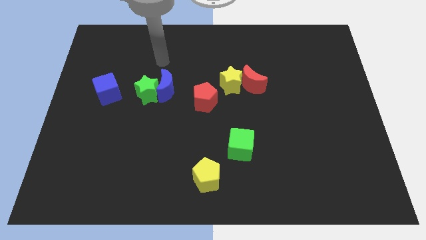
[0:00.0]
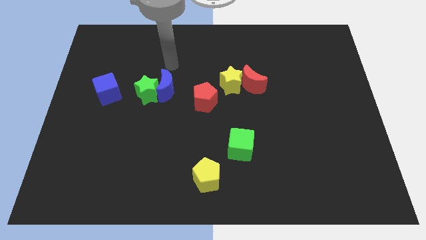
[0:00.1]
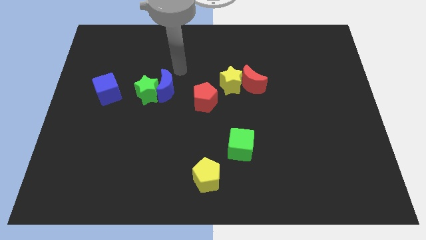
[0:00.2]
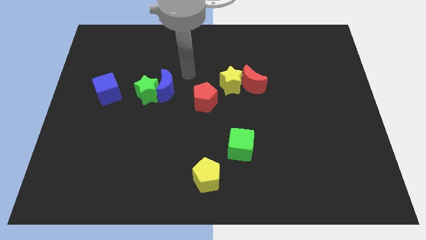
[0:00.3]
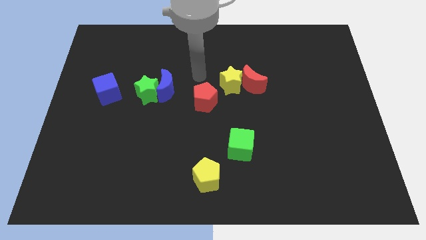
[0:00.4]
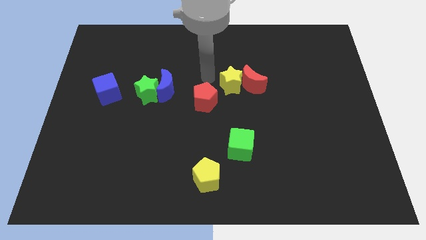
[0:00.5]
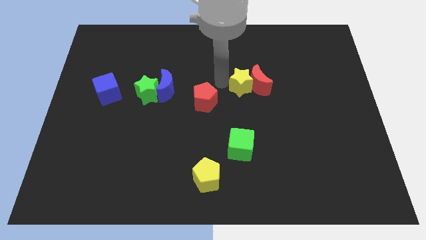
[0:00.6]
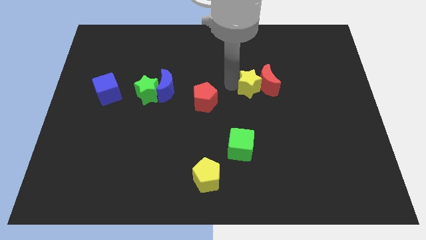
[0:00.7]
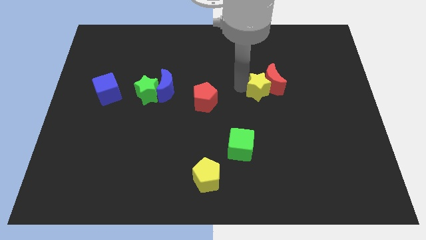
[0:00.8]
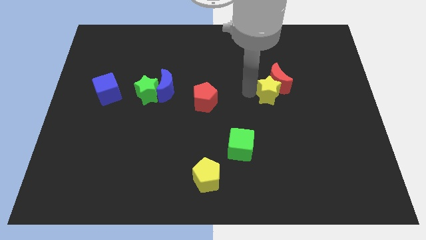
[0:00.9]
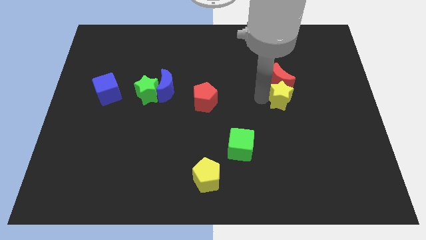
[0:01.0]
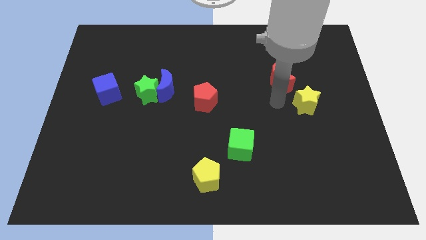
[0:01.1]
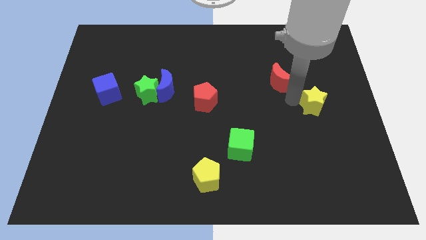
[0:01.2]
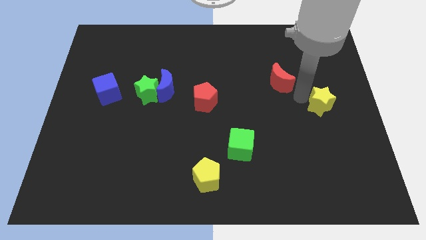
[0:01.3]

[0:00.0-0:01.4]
move the red moon away from the yellow star

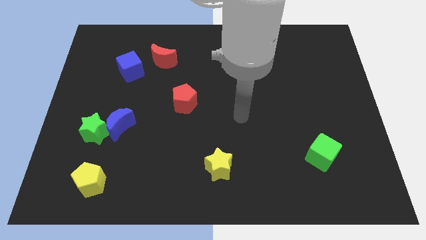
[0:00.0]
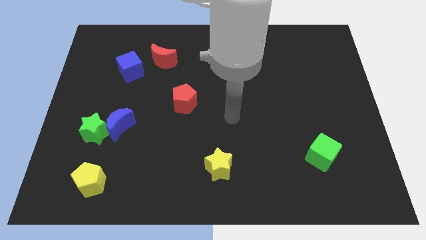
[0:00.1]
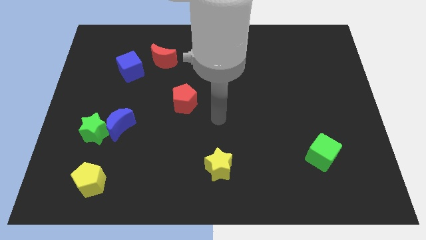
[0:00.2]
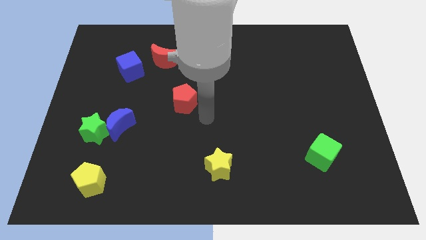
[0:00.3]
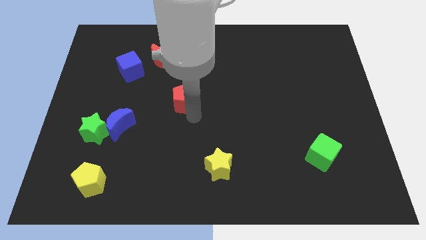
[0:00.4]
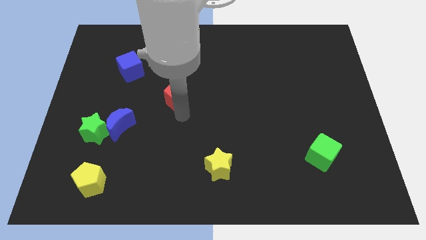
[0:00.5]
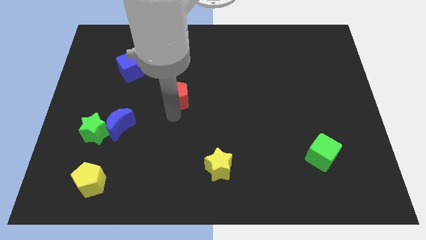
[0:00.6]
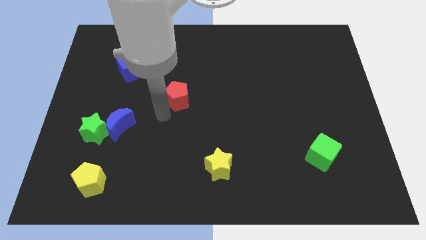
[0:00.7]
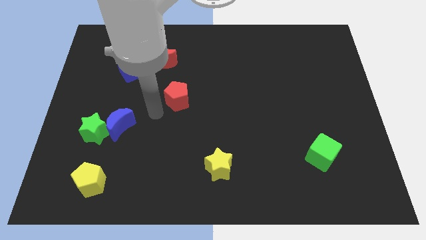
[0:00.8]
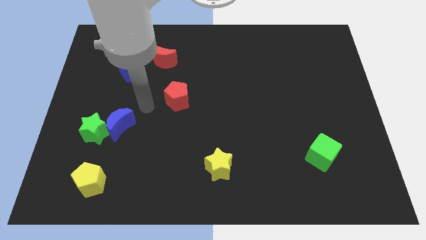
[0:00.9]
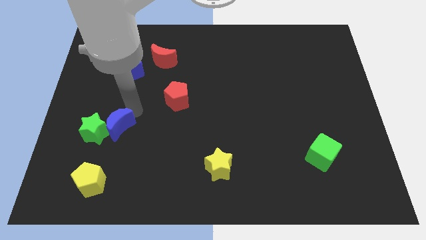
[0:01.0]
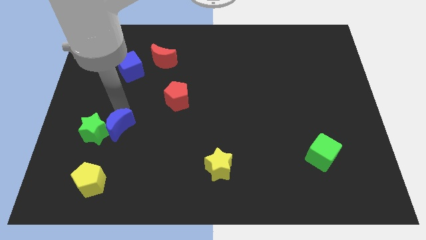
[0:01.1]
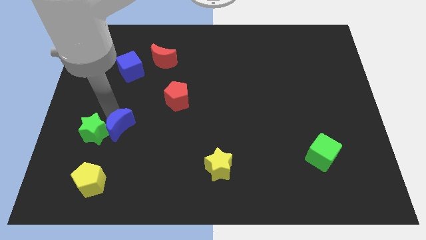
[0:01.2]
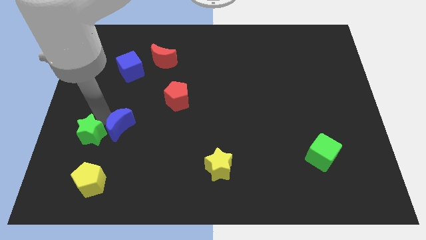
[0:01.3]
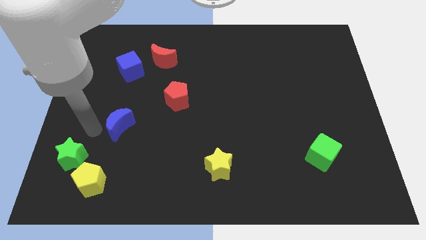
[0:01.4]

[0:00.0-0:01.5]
pull the blue moon apart from the green star

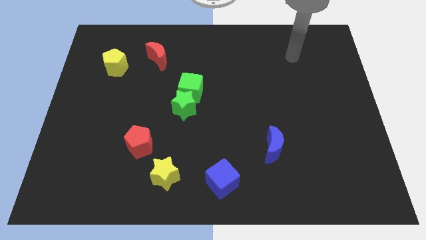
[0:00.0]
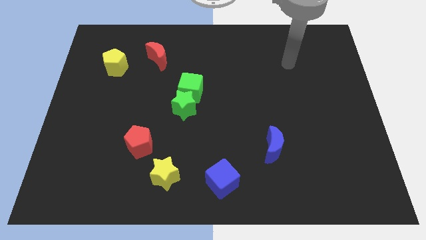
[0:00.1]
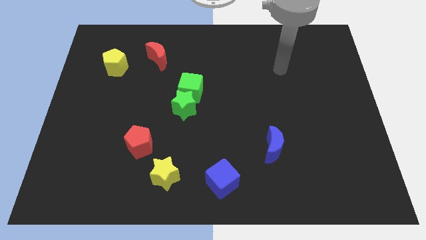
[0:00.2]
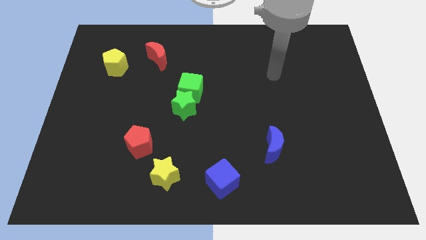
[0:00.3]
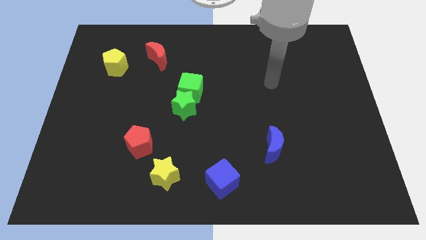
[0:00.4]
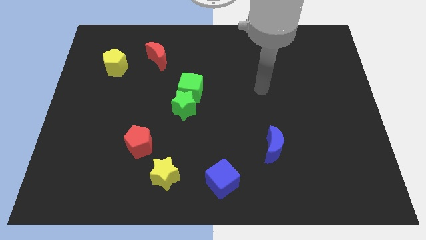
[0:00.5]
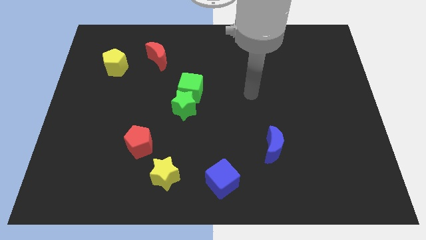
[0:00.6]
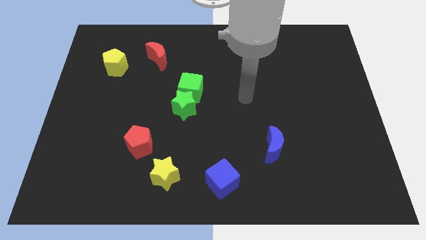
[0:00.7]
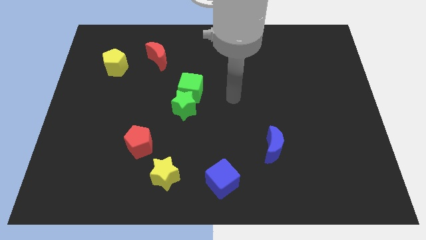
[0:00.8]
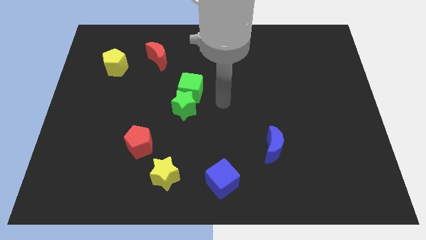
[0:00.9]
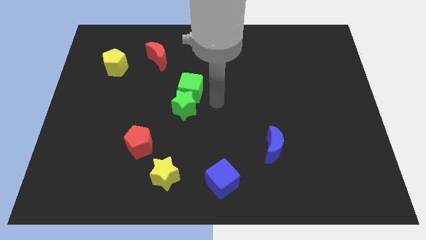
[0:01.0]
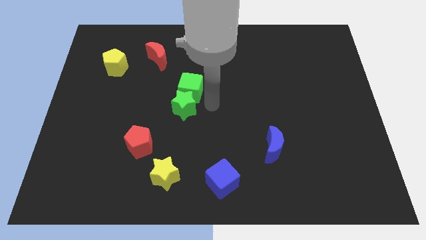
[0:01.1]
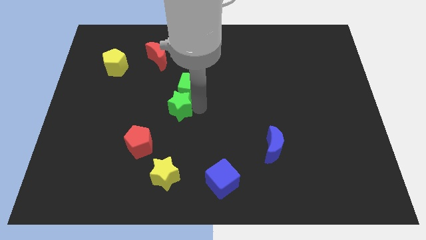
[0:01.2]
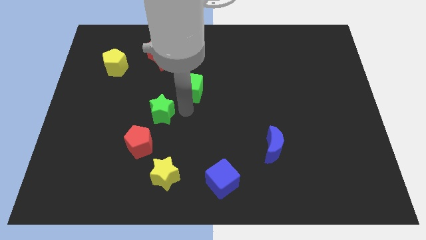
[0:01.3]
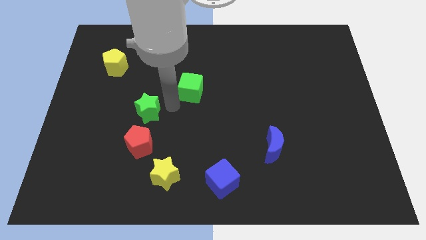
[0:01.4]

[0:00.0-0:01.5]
separate the green cube from the green star

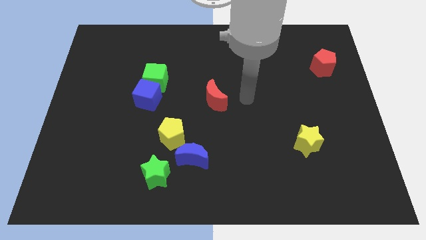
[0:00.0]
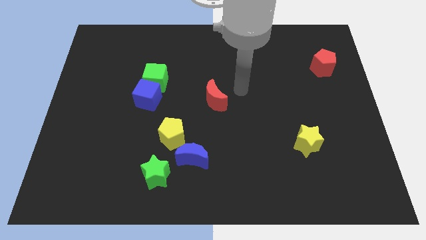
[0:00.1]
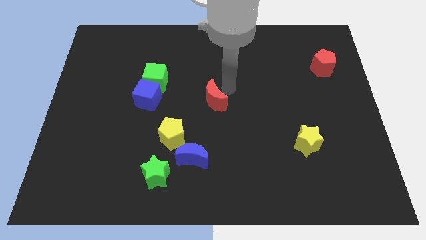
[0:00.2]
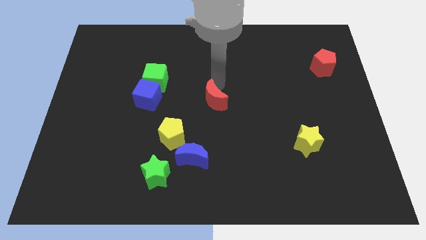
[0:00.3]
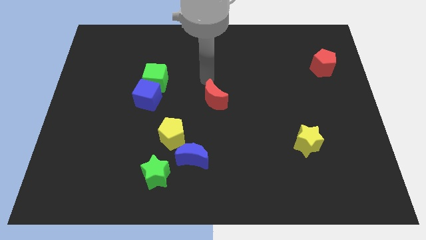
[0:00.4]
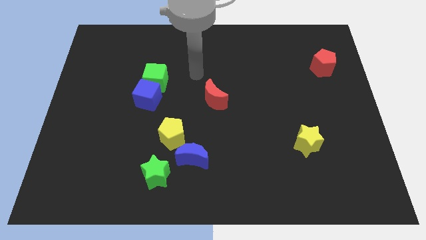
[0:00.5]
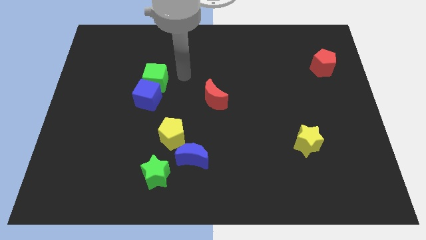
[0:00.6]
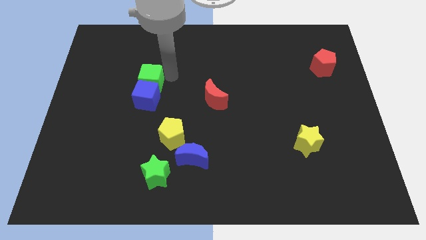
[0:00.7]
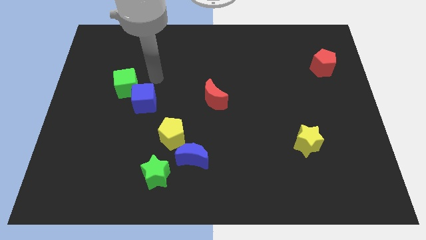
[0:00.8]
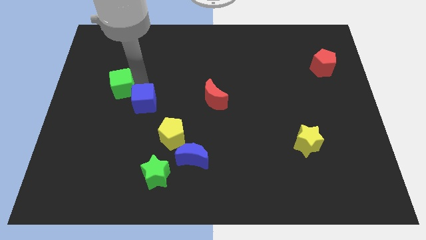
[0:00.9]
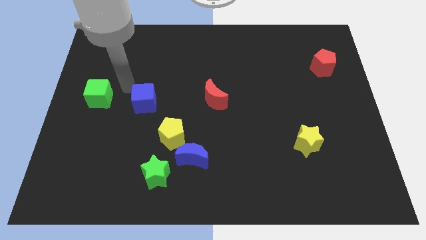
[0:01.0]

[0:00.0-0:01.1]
move the blue cube away from the green cube

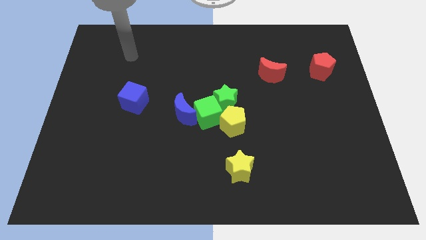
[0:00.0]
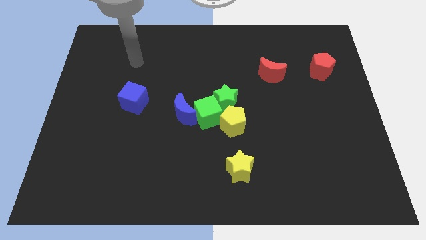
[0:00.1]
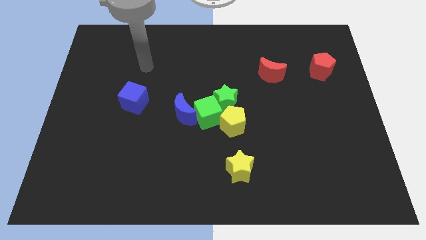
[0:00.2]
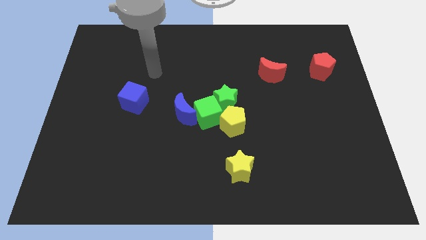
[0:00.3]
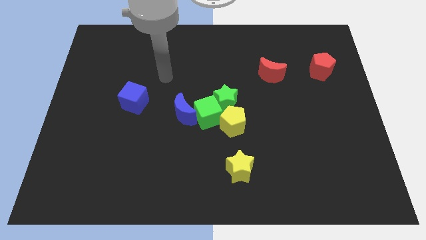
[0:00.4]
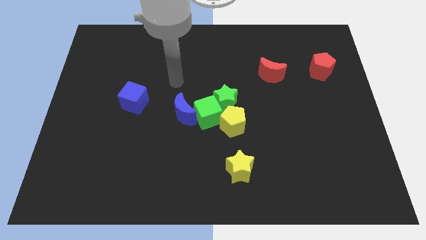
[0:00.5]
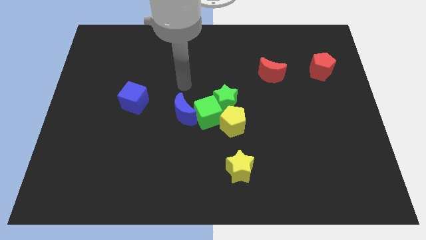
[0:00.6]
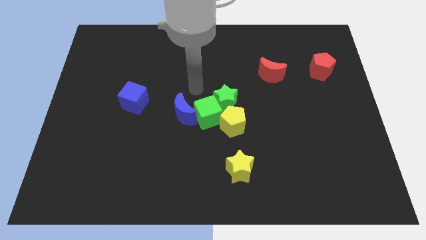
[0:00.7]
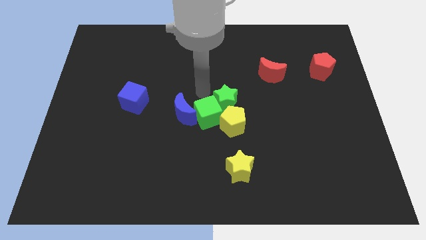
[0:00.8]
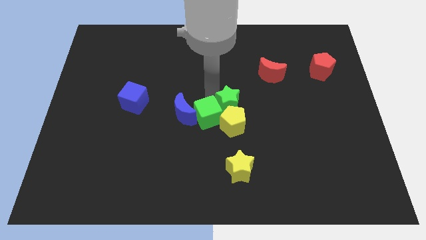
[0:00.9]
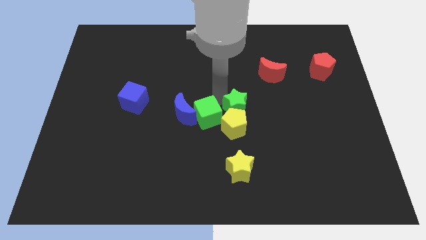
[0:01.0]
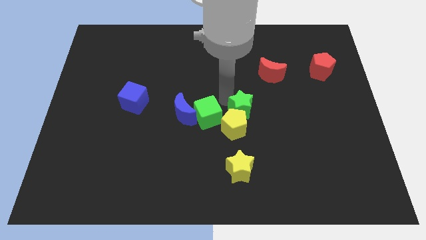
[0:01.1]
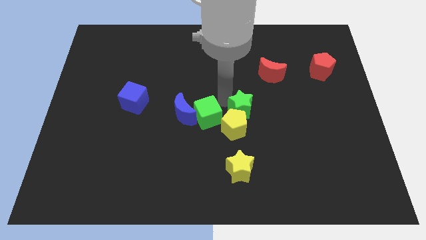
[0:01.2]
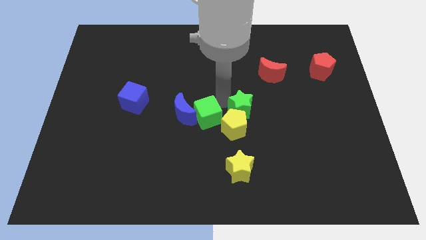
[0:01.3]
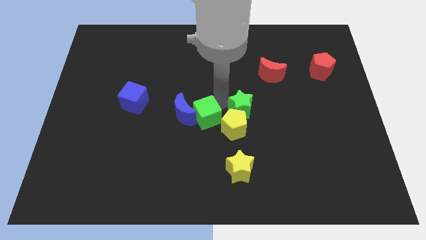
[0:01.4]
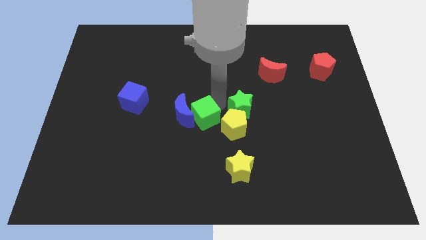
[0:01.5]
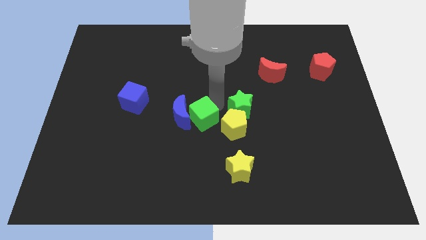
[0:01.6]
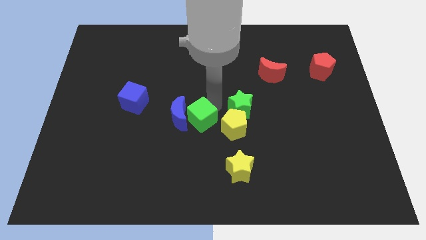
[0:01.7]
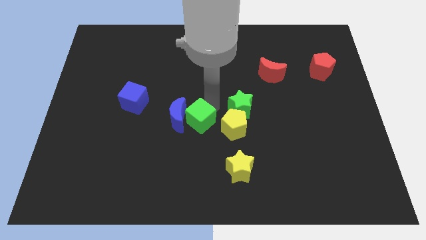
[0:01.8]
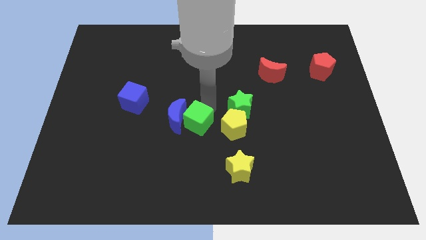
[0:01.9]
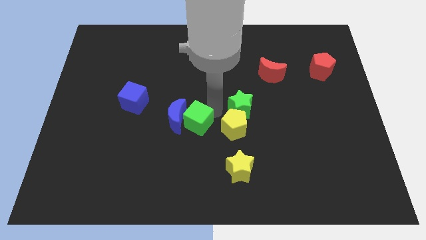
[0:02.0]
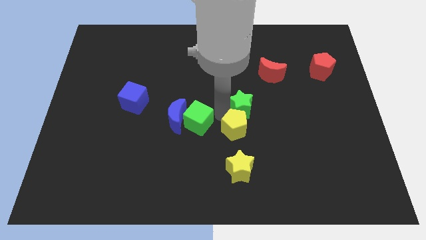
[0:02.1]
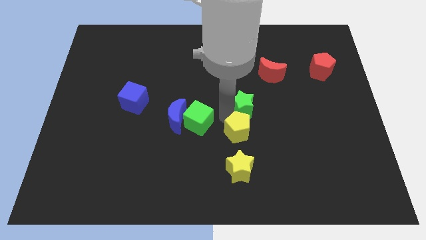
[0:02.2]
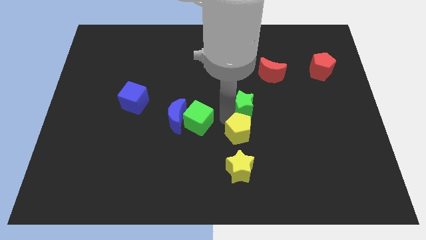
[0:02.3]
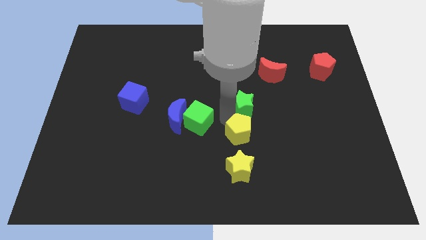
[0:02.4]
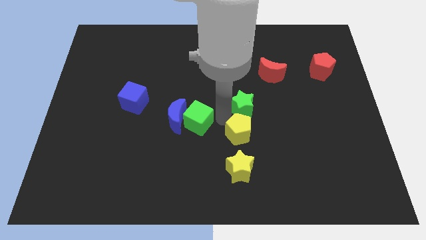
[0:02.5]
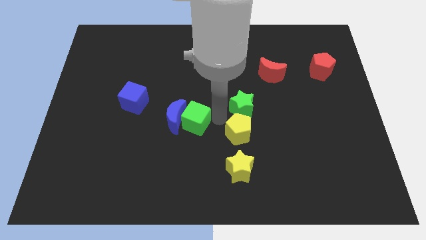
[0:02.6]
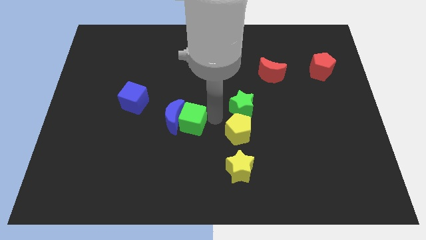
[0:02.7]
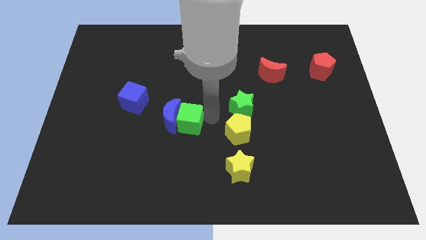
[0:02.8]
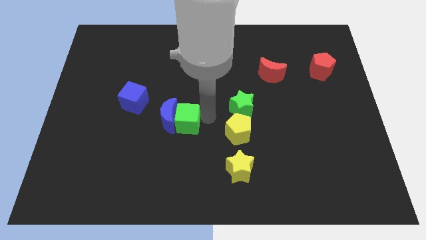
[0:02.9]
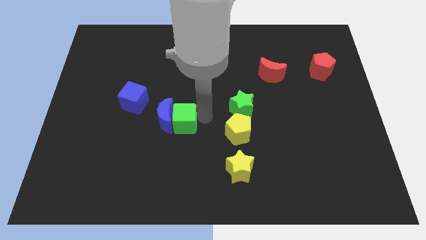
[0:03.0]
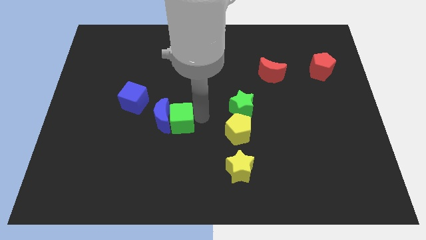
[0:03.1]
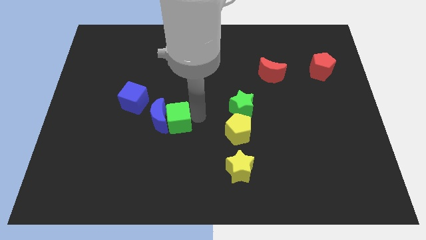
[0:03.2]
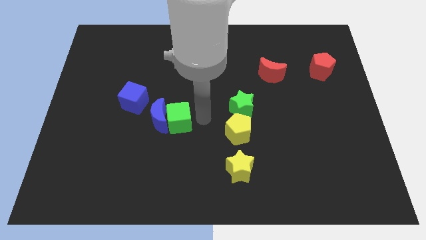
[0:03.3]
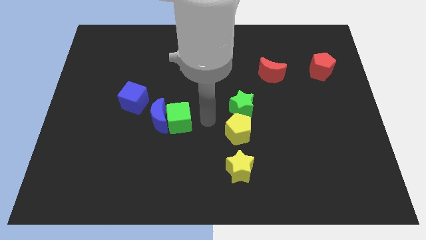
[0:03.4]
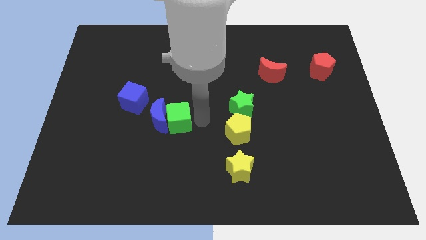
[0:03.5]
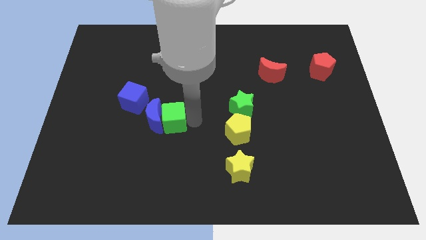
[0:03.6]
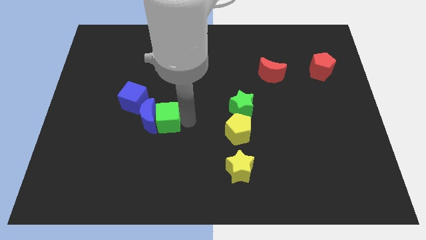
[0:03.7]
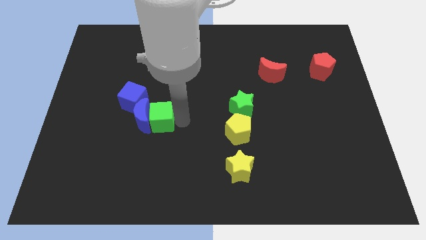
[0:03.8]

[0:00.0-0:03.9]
separate the green cube from the group
